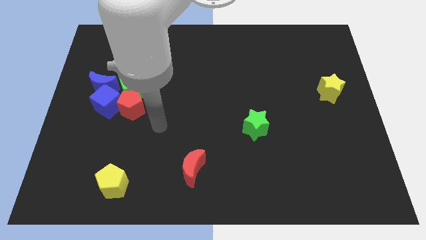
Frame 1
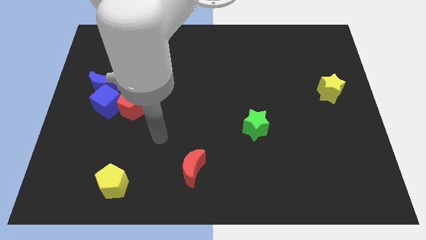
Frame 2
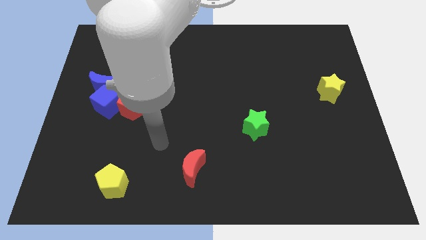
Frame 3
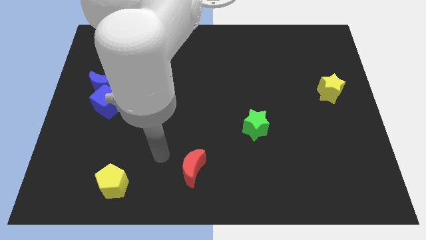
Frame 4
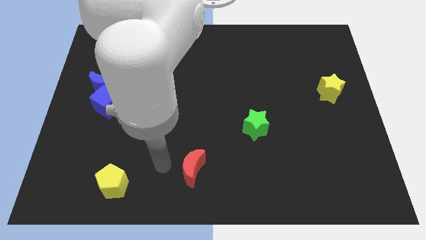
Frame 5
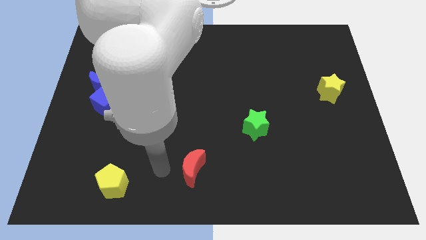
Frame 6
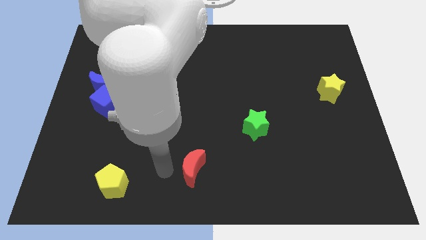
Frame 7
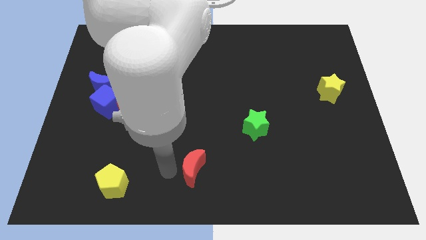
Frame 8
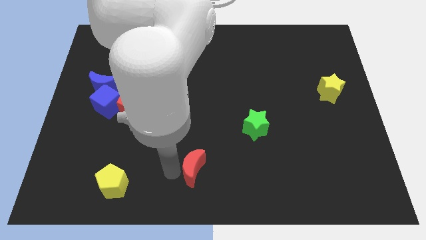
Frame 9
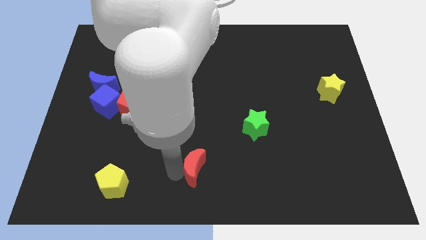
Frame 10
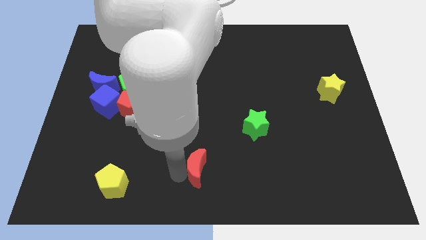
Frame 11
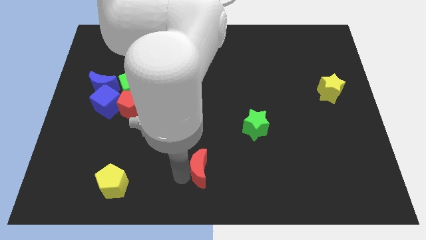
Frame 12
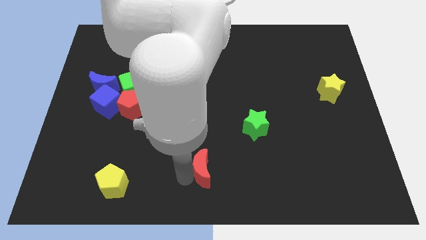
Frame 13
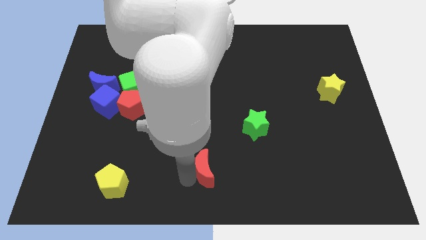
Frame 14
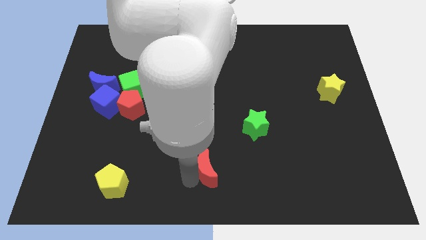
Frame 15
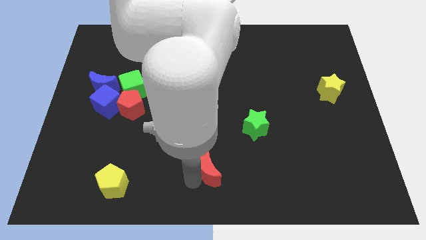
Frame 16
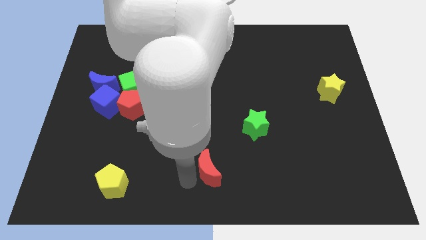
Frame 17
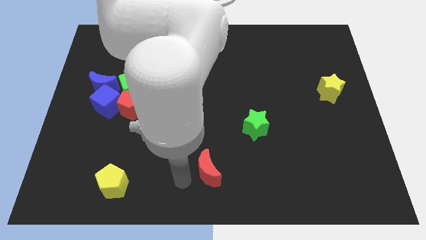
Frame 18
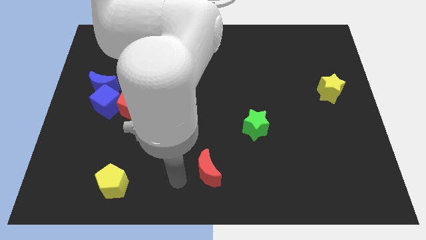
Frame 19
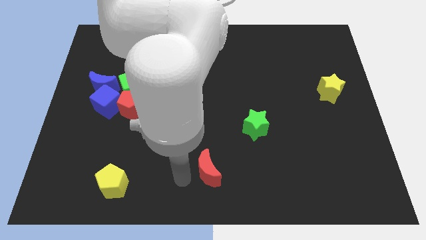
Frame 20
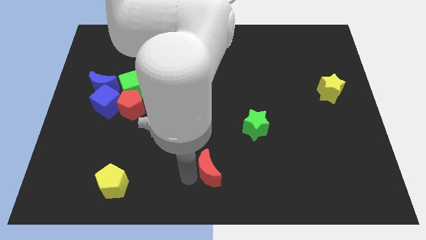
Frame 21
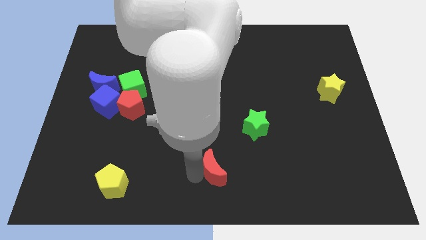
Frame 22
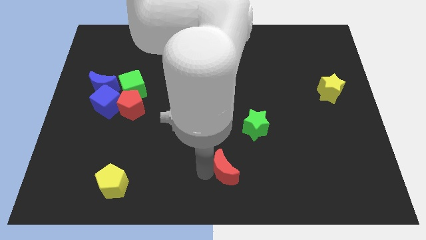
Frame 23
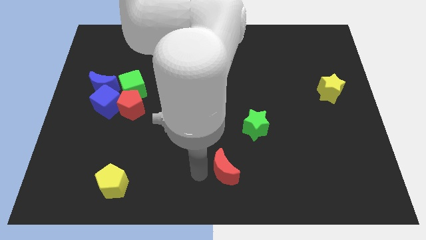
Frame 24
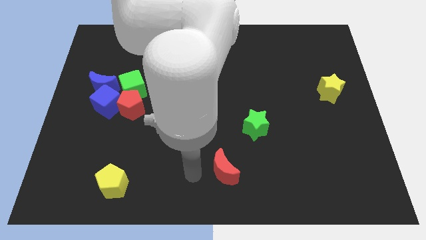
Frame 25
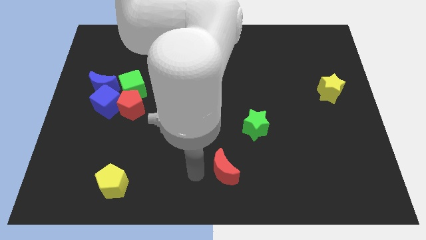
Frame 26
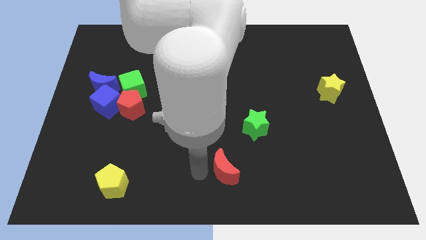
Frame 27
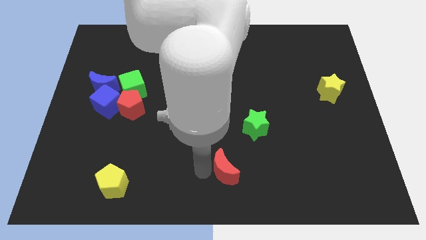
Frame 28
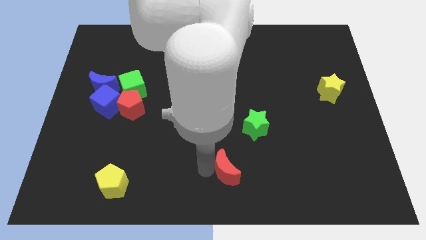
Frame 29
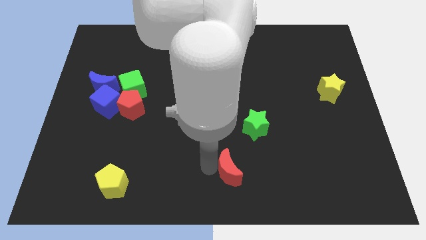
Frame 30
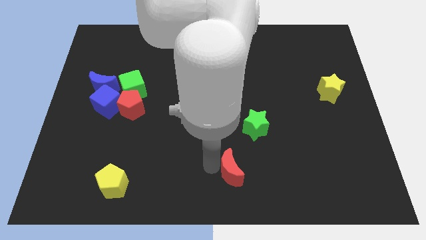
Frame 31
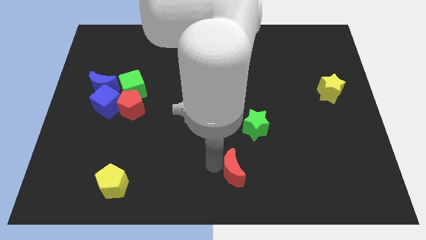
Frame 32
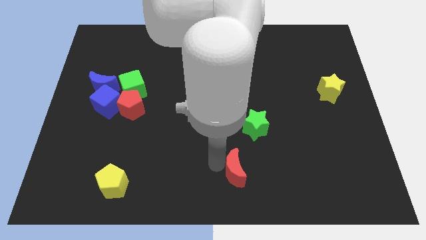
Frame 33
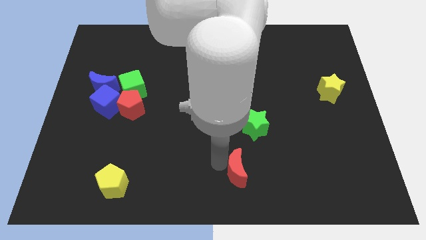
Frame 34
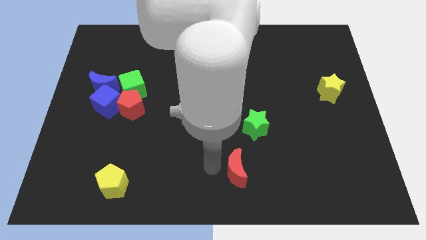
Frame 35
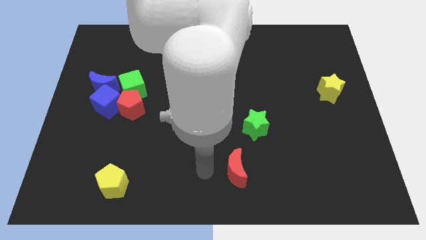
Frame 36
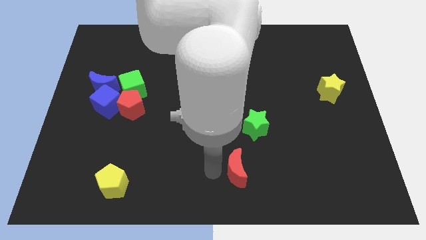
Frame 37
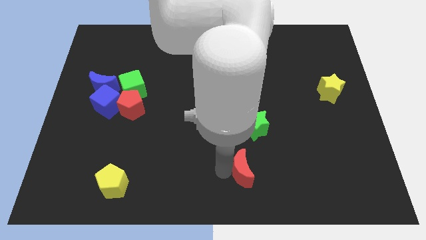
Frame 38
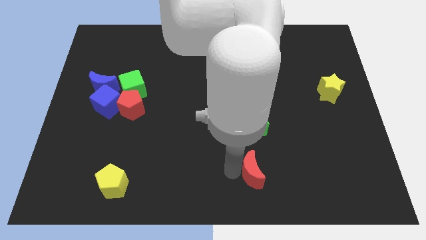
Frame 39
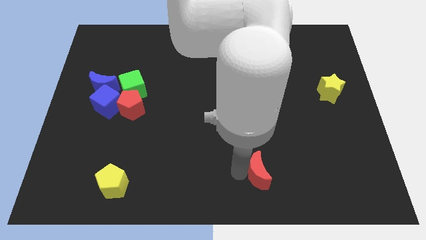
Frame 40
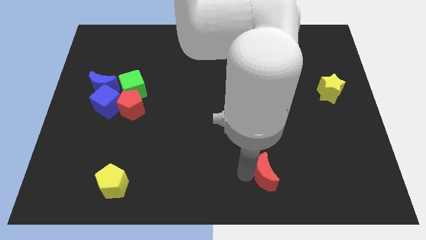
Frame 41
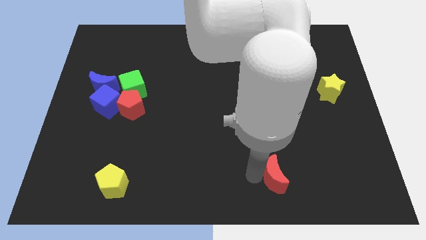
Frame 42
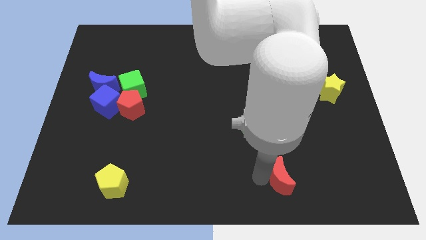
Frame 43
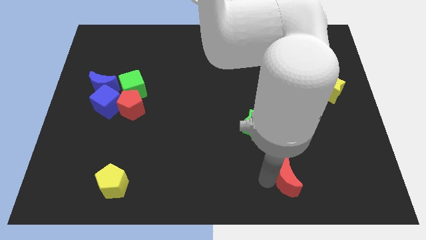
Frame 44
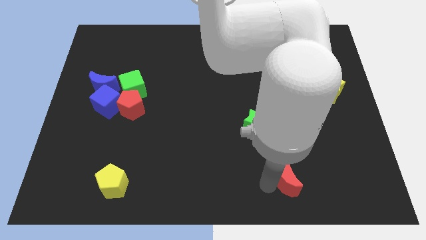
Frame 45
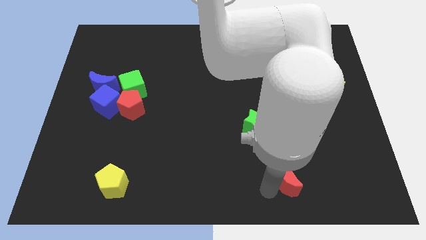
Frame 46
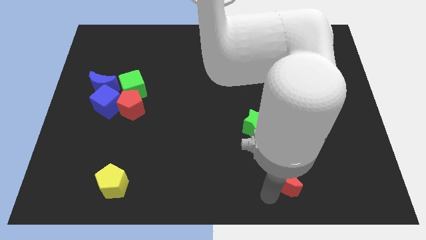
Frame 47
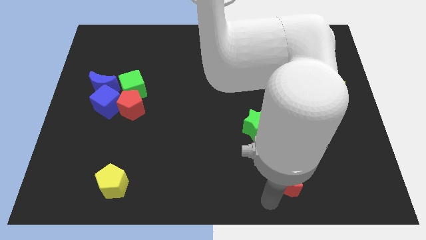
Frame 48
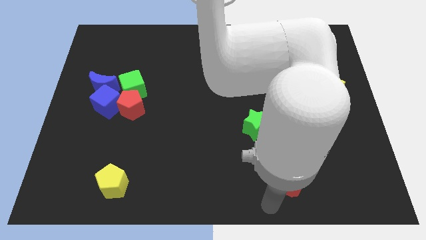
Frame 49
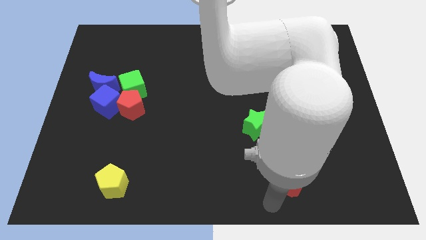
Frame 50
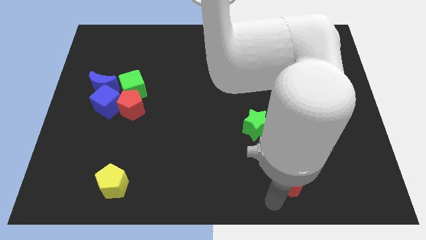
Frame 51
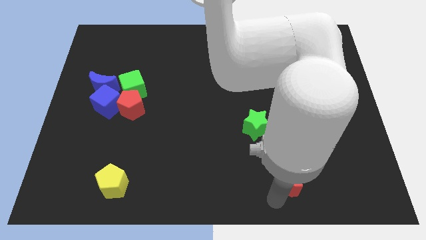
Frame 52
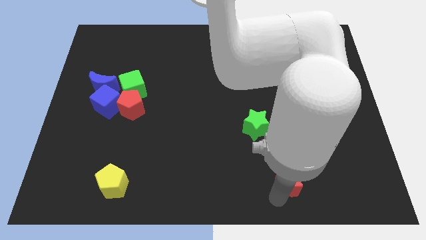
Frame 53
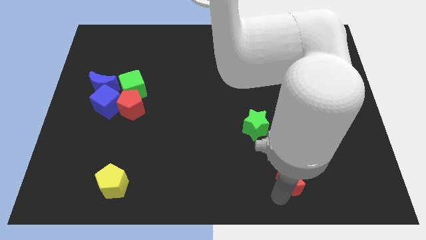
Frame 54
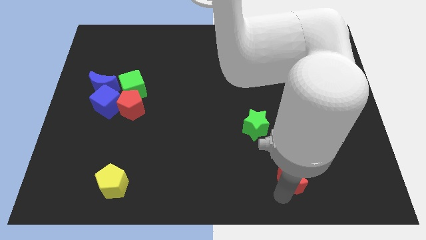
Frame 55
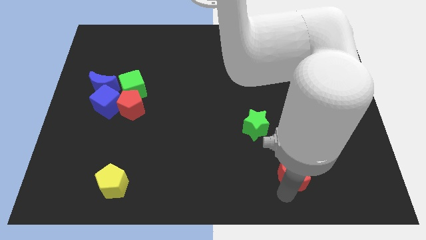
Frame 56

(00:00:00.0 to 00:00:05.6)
slide the red moon to the right

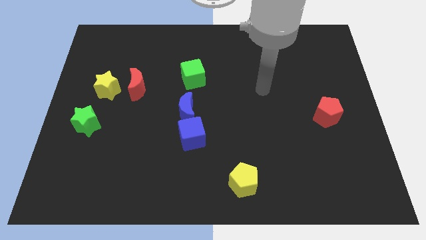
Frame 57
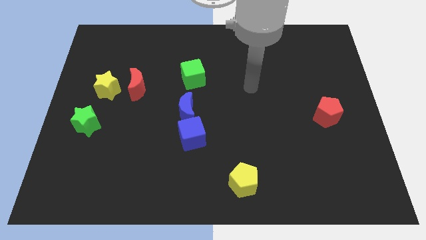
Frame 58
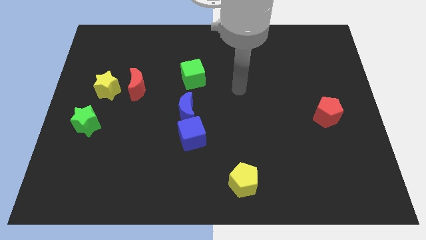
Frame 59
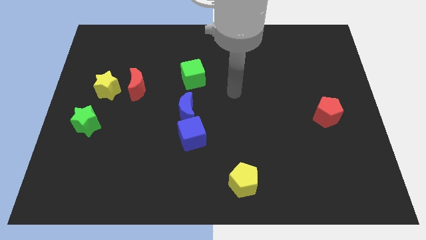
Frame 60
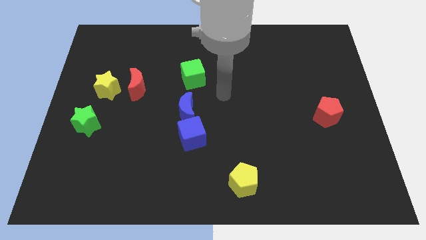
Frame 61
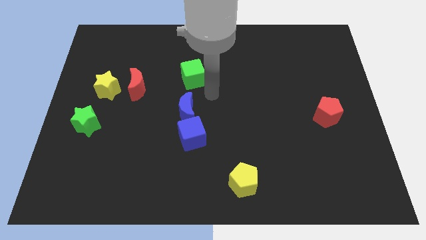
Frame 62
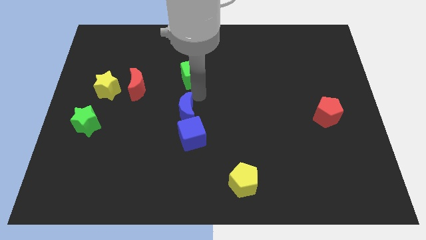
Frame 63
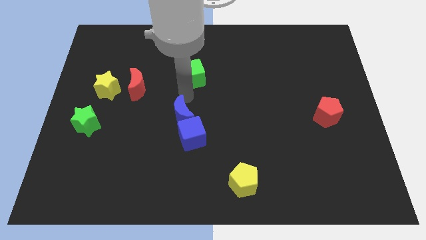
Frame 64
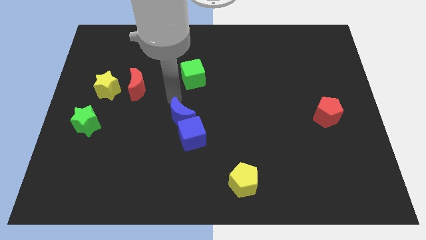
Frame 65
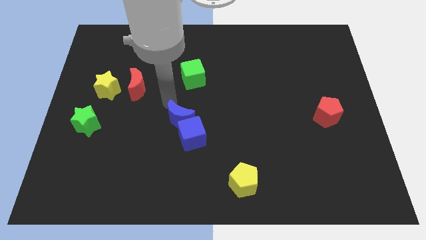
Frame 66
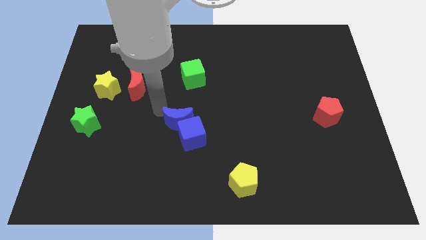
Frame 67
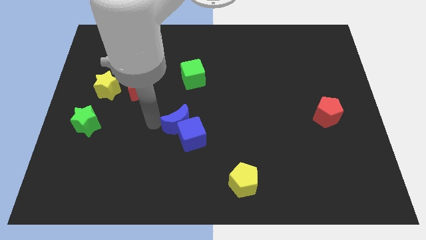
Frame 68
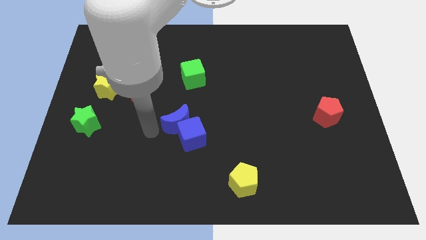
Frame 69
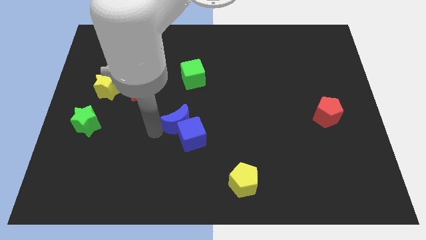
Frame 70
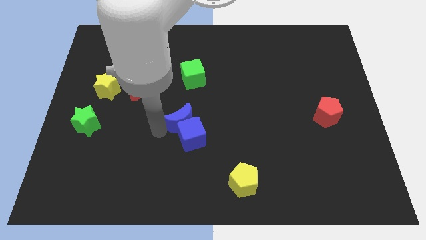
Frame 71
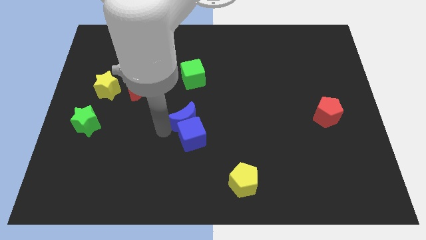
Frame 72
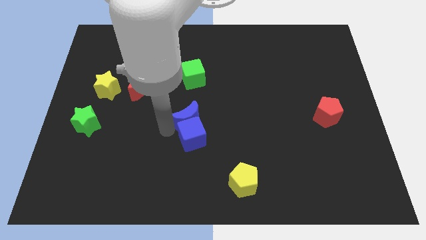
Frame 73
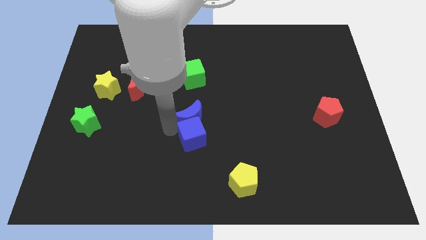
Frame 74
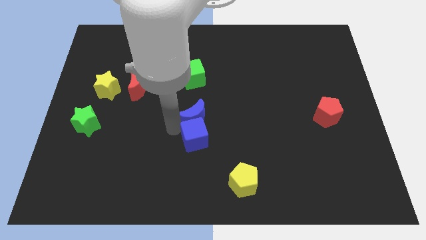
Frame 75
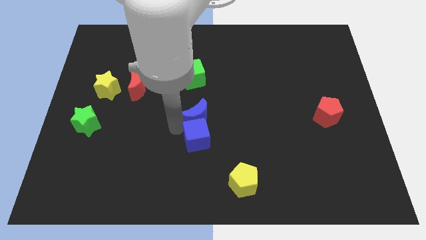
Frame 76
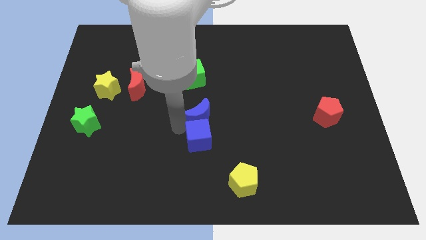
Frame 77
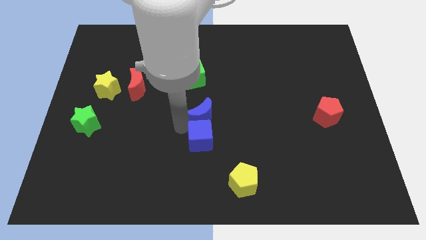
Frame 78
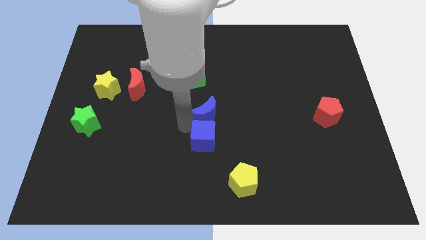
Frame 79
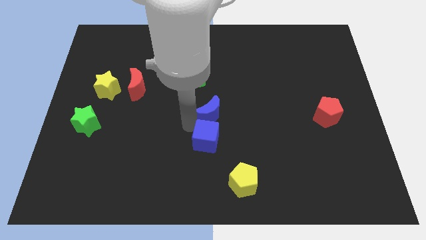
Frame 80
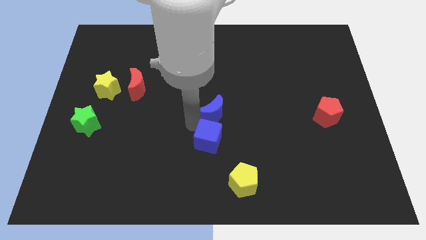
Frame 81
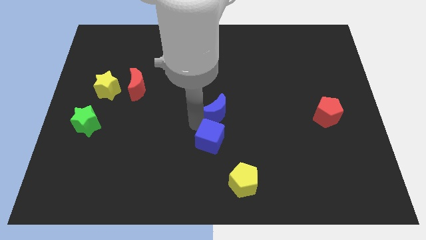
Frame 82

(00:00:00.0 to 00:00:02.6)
push the blue moon to the right a little bit
